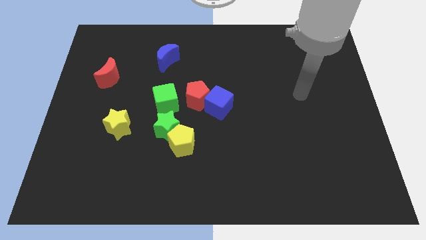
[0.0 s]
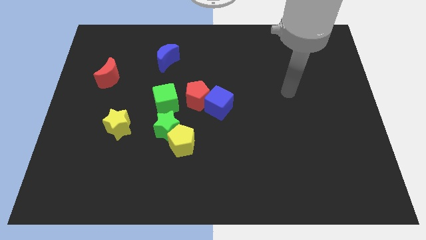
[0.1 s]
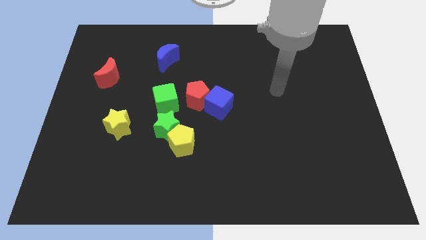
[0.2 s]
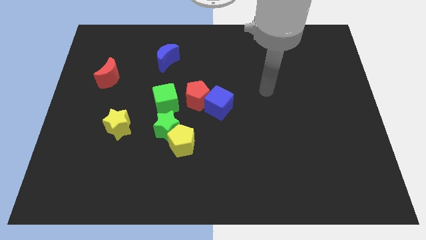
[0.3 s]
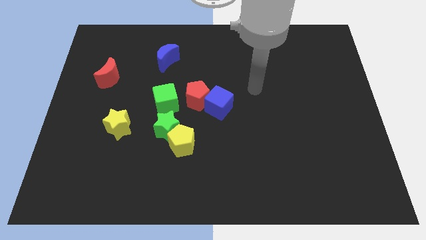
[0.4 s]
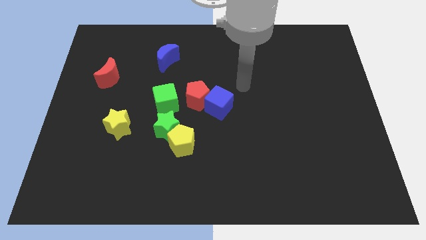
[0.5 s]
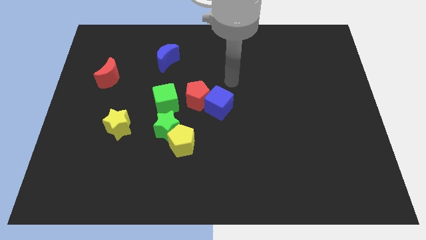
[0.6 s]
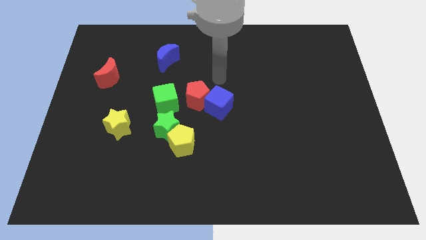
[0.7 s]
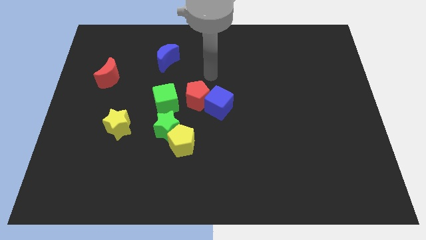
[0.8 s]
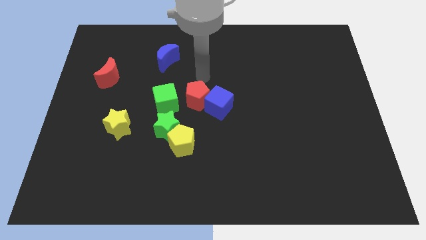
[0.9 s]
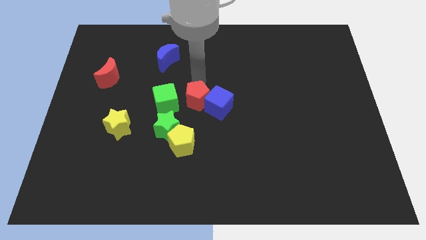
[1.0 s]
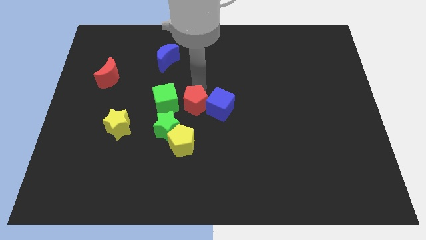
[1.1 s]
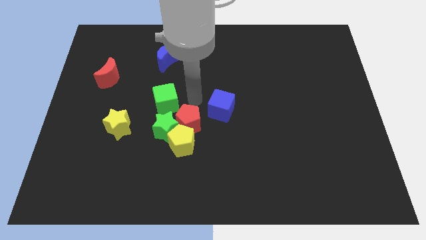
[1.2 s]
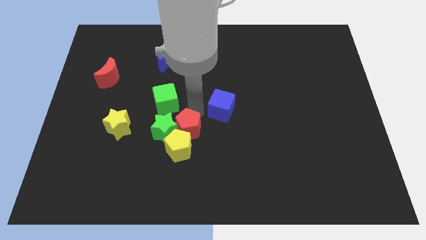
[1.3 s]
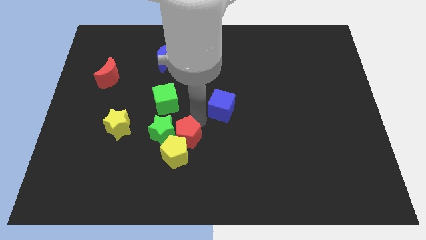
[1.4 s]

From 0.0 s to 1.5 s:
separate the blue cube from the red pentagon

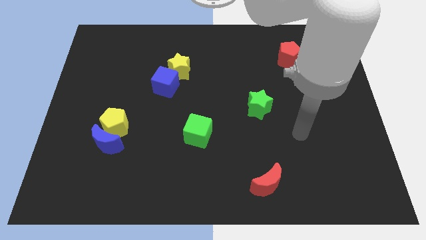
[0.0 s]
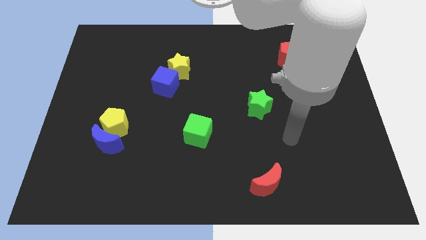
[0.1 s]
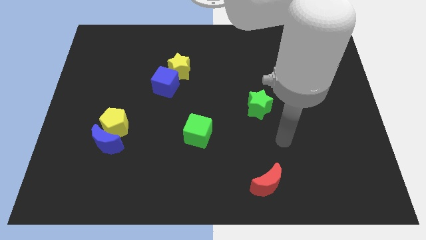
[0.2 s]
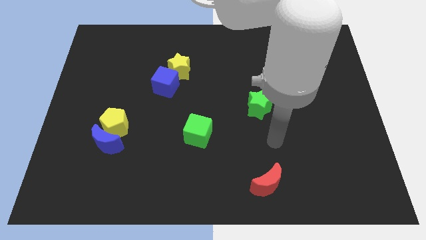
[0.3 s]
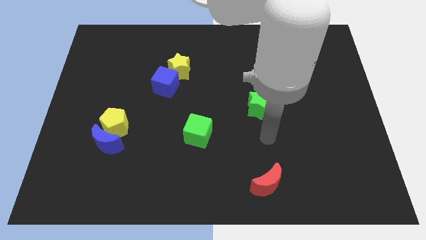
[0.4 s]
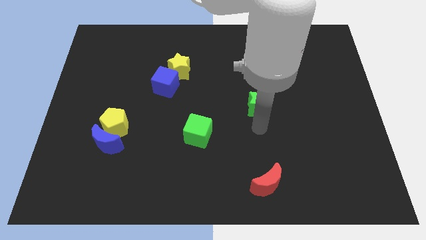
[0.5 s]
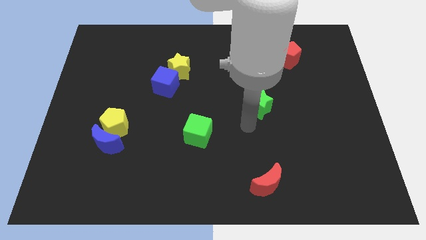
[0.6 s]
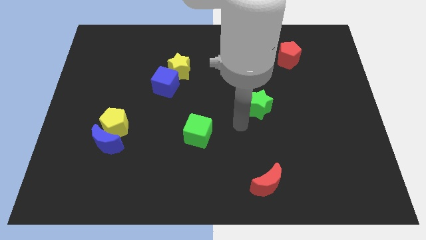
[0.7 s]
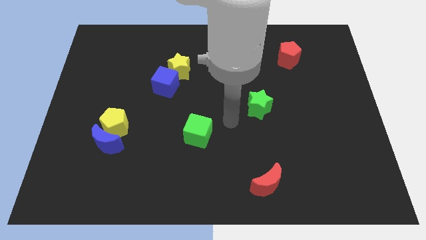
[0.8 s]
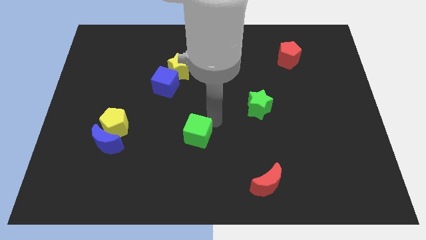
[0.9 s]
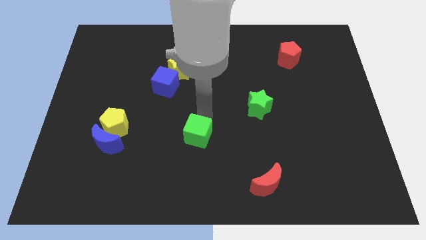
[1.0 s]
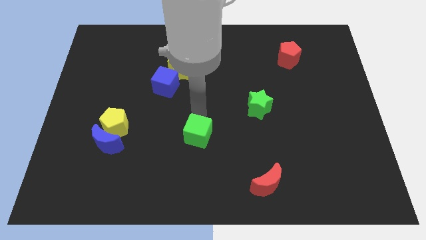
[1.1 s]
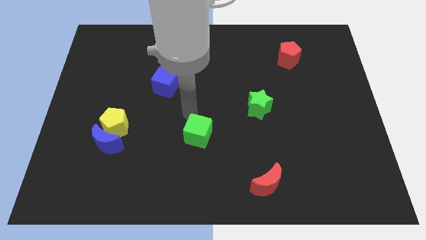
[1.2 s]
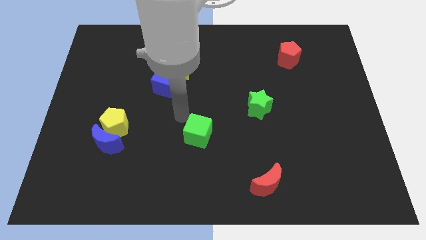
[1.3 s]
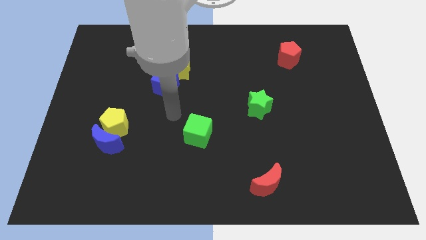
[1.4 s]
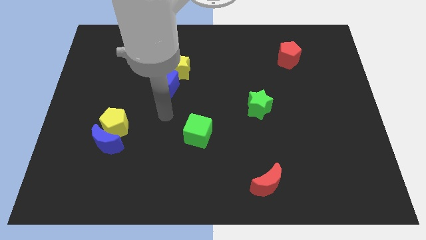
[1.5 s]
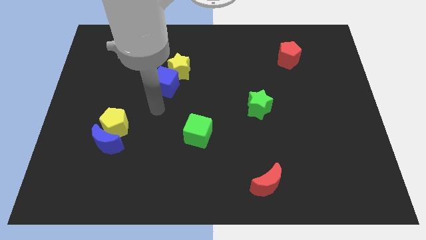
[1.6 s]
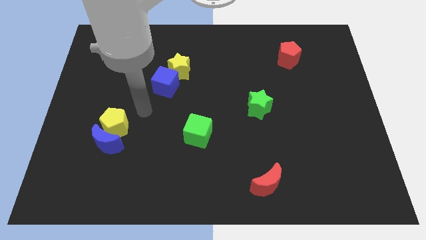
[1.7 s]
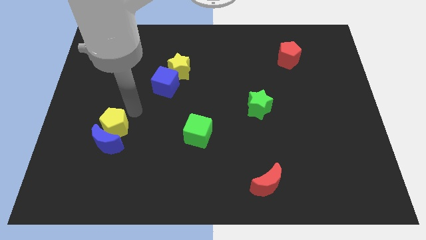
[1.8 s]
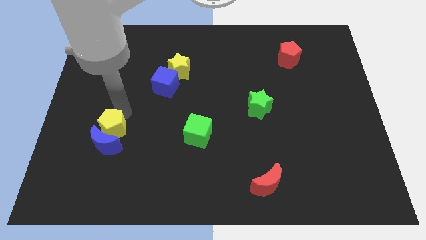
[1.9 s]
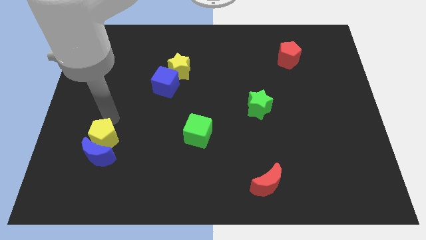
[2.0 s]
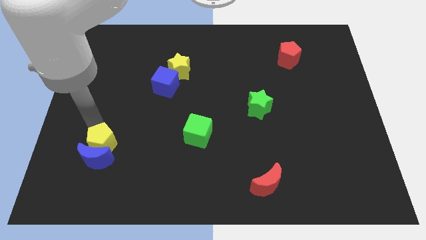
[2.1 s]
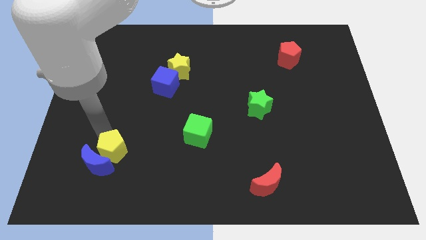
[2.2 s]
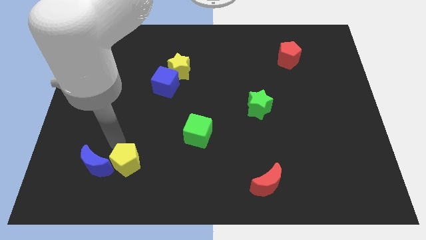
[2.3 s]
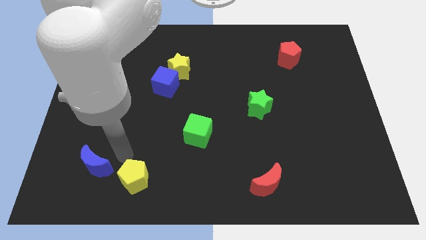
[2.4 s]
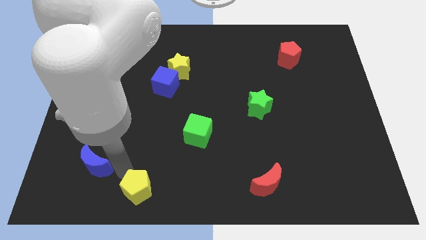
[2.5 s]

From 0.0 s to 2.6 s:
separate the blue moon from the yellow pentagon

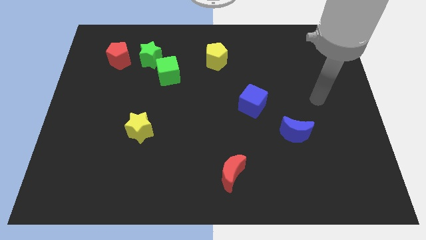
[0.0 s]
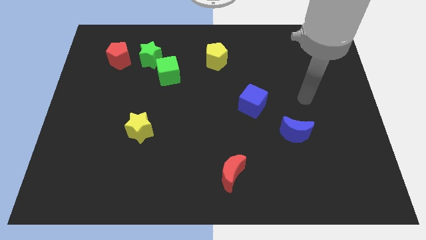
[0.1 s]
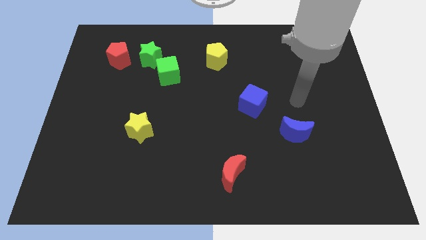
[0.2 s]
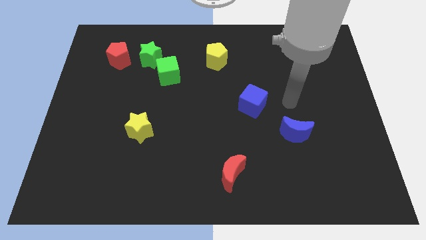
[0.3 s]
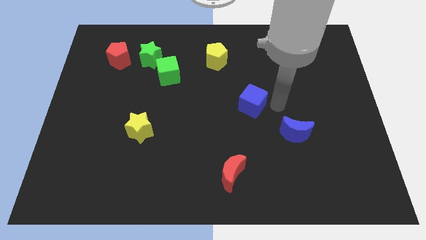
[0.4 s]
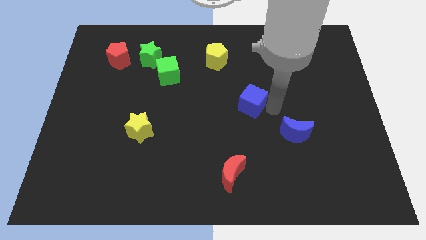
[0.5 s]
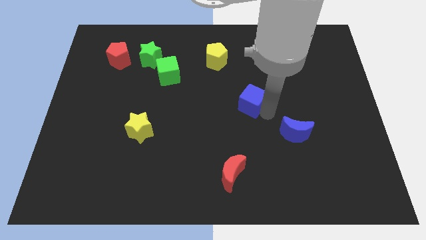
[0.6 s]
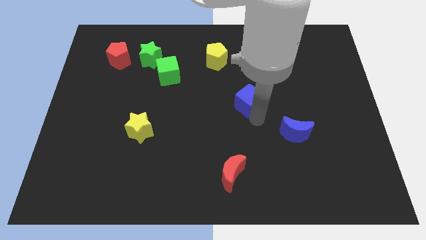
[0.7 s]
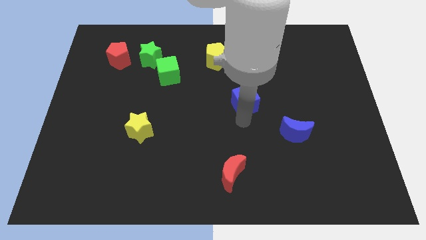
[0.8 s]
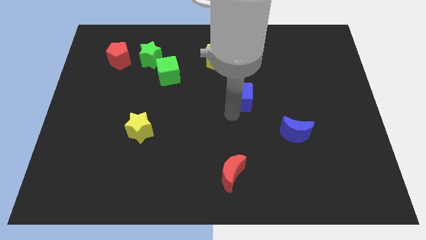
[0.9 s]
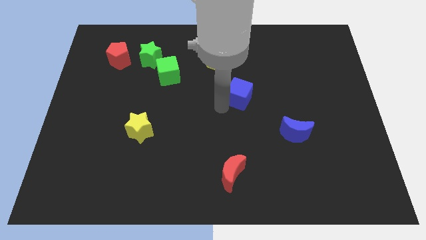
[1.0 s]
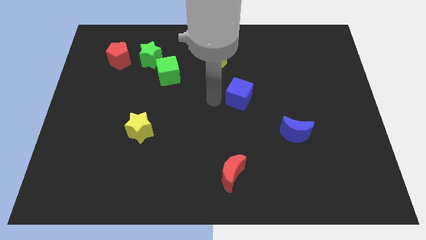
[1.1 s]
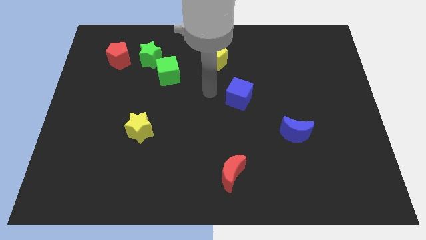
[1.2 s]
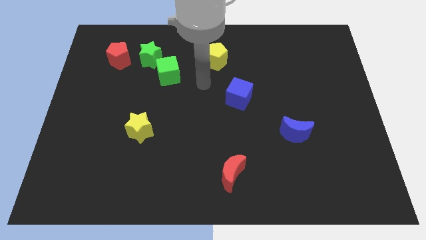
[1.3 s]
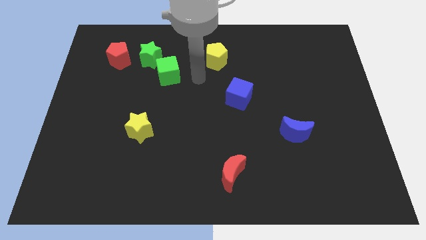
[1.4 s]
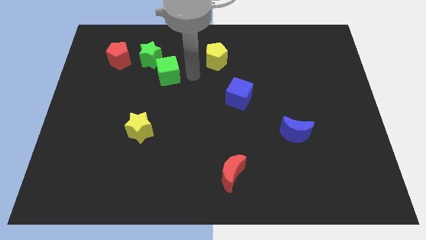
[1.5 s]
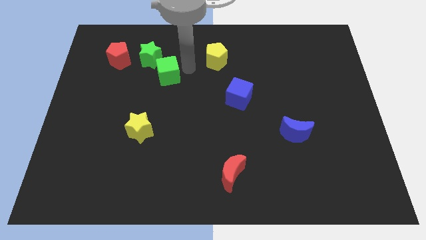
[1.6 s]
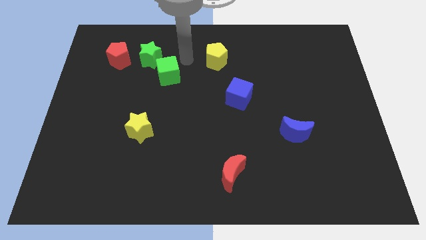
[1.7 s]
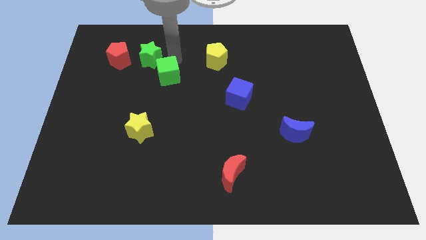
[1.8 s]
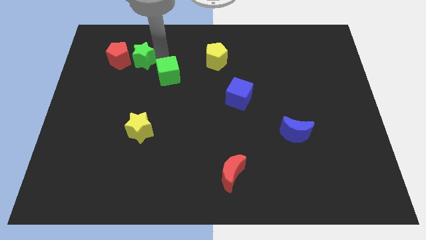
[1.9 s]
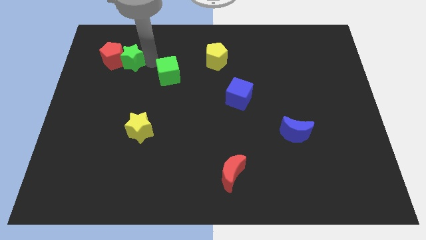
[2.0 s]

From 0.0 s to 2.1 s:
move the green cube away from the green star

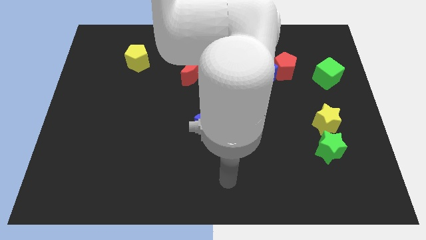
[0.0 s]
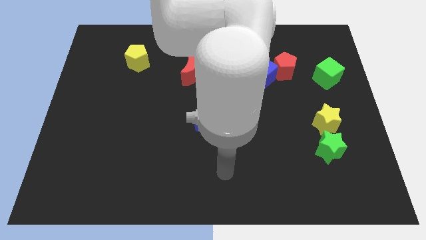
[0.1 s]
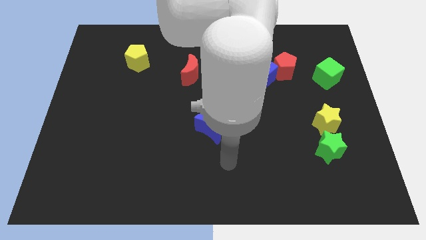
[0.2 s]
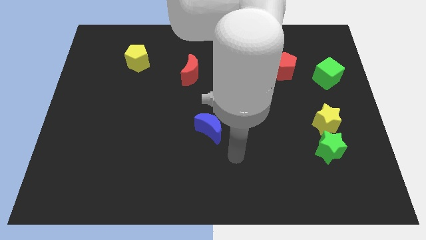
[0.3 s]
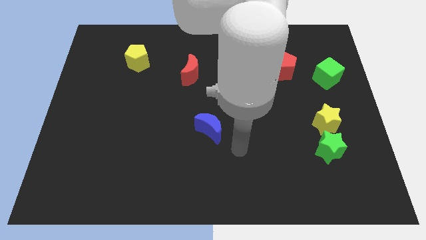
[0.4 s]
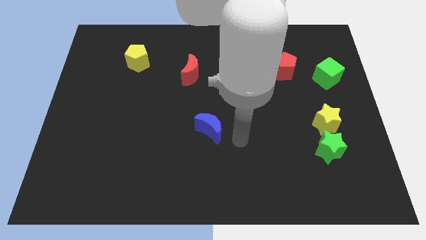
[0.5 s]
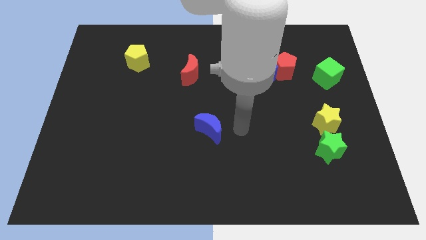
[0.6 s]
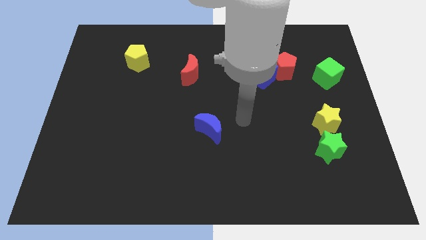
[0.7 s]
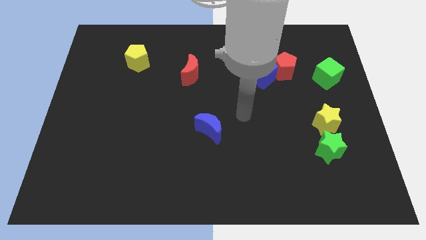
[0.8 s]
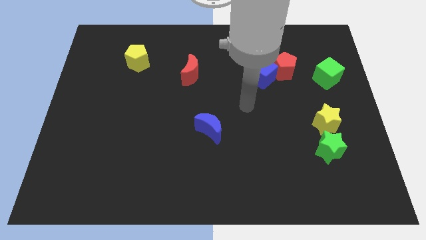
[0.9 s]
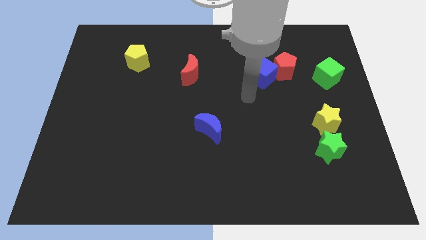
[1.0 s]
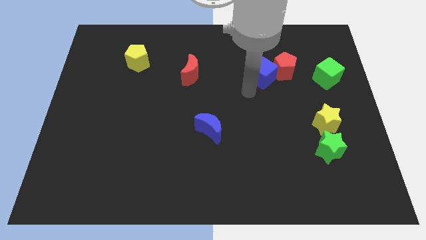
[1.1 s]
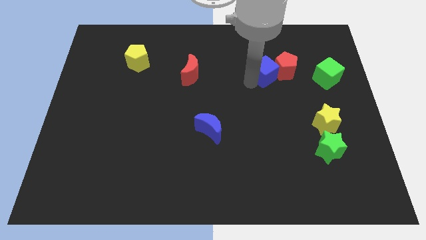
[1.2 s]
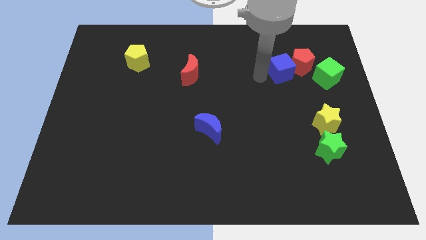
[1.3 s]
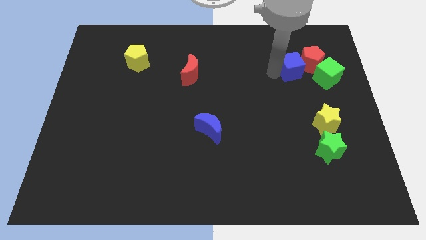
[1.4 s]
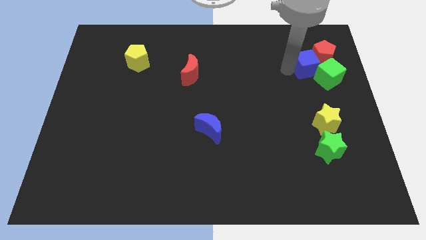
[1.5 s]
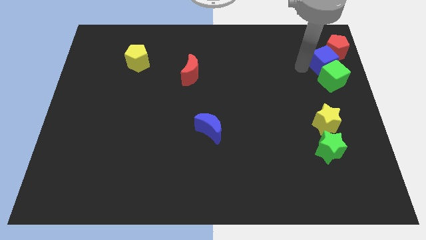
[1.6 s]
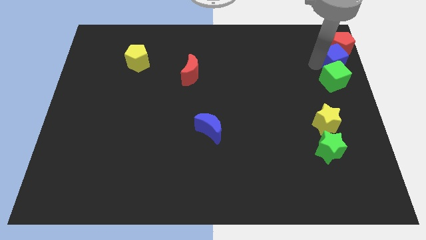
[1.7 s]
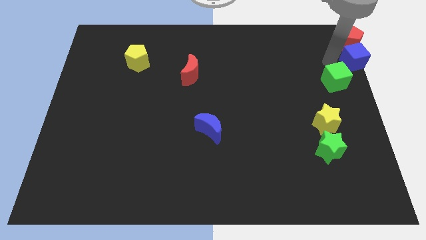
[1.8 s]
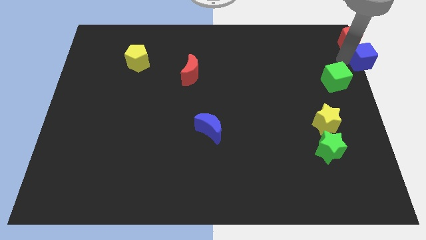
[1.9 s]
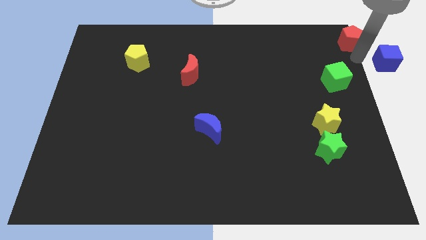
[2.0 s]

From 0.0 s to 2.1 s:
separate the red pentagon from the blue cube

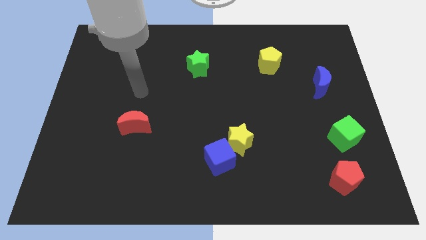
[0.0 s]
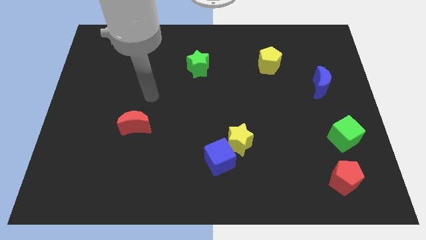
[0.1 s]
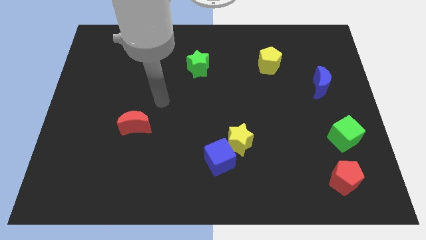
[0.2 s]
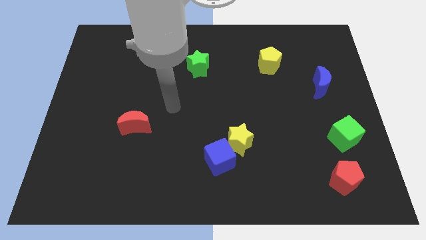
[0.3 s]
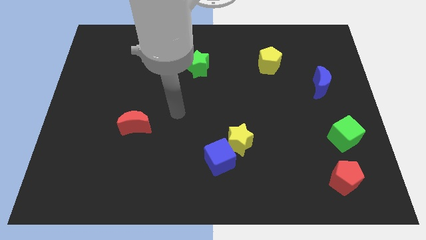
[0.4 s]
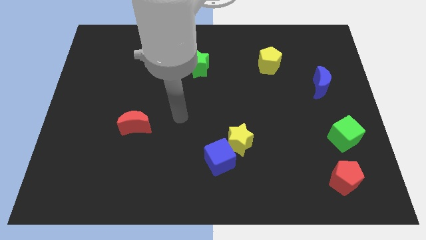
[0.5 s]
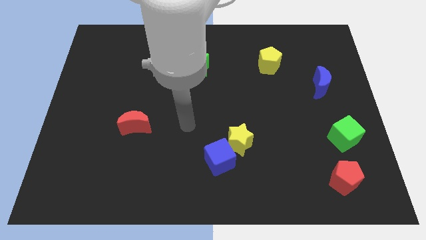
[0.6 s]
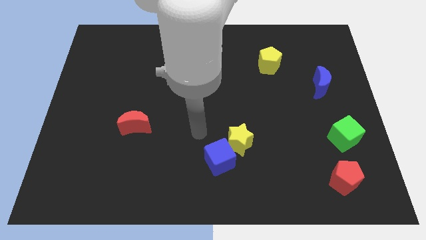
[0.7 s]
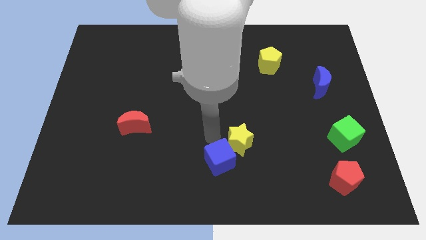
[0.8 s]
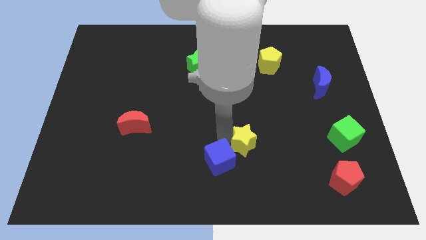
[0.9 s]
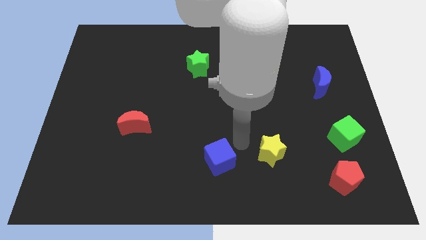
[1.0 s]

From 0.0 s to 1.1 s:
separate the blue cube from the yellow star
